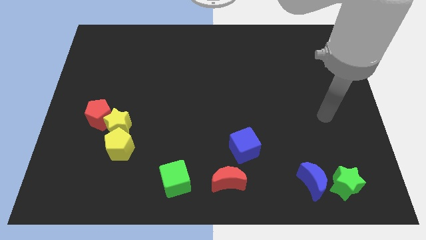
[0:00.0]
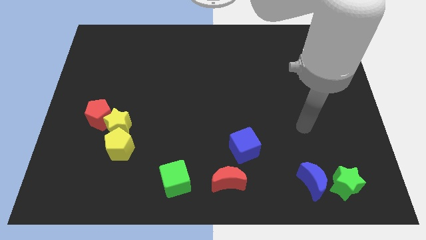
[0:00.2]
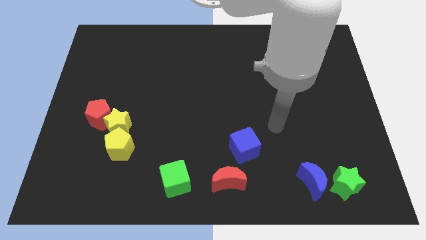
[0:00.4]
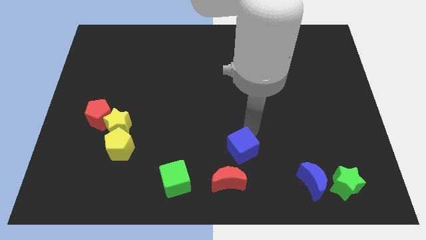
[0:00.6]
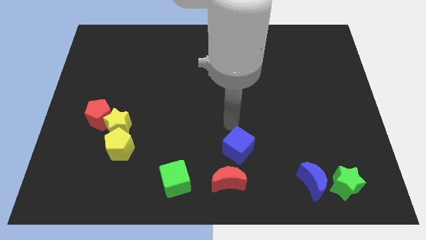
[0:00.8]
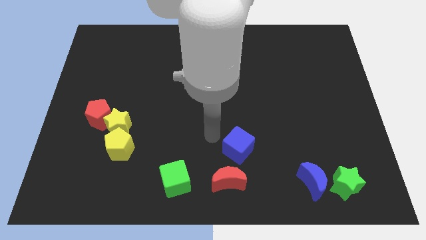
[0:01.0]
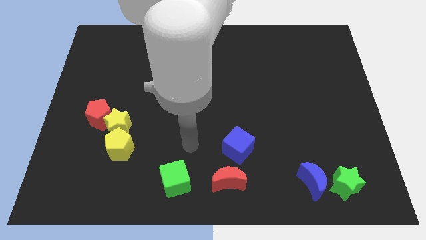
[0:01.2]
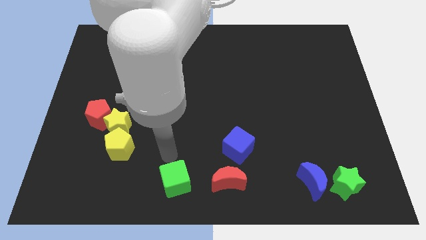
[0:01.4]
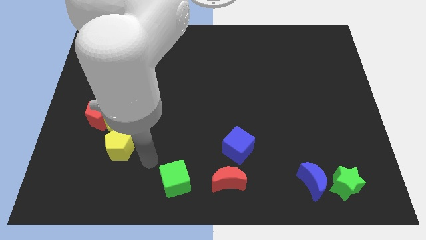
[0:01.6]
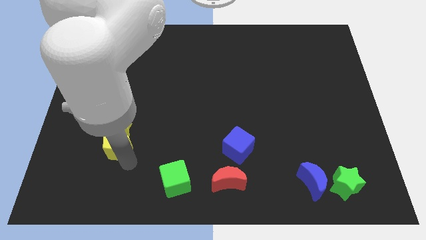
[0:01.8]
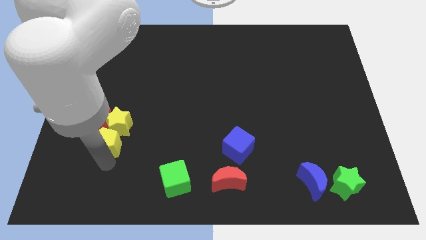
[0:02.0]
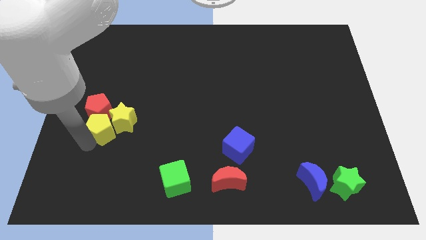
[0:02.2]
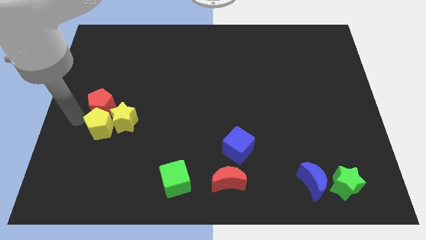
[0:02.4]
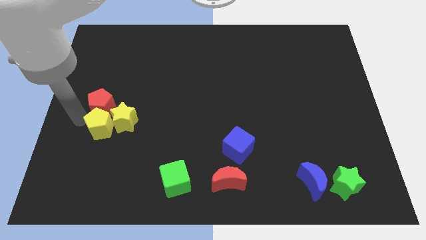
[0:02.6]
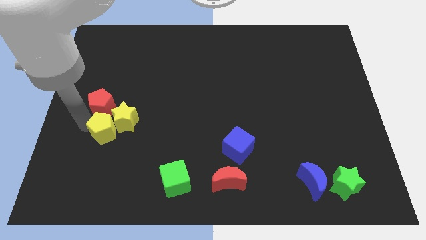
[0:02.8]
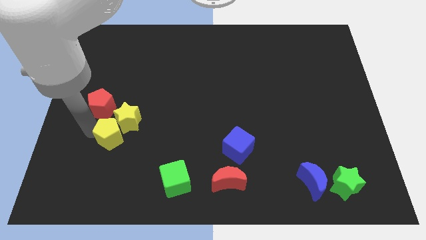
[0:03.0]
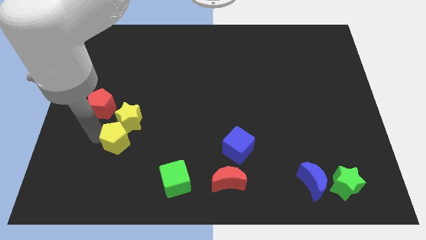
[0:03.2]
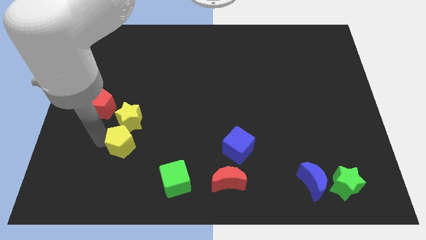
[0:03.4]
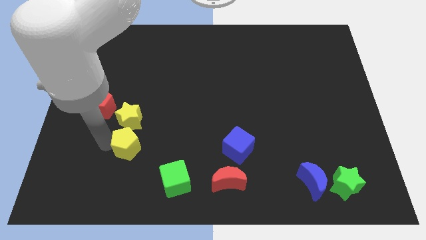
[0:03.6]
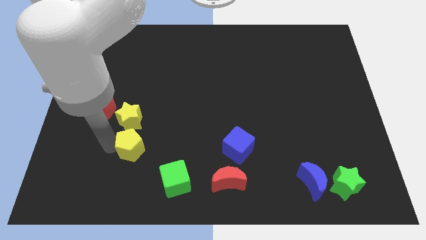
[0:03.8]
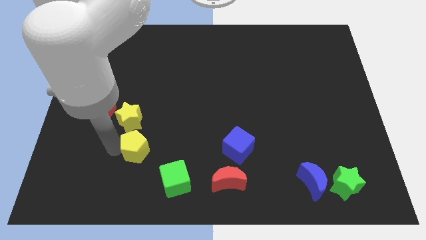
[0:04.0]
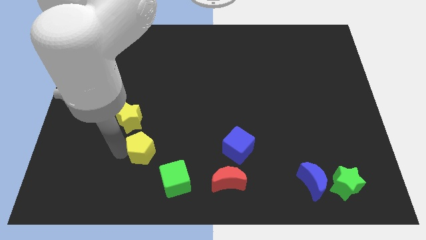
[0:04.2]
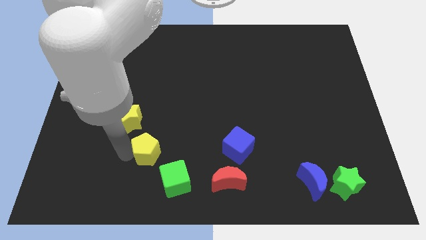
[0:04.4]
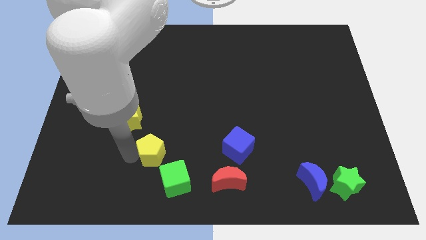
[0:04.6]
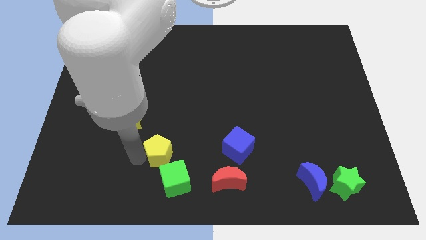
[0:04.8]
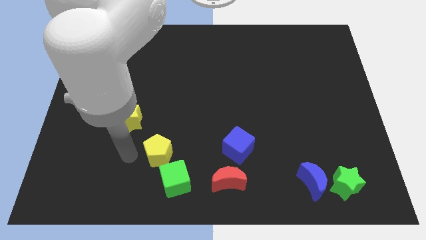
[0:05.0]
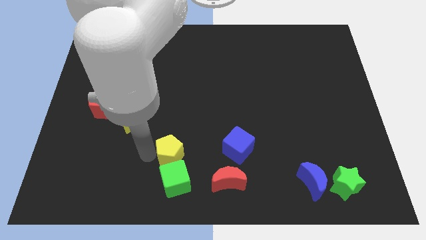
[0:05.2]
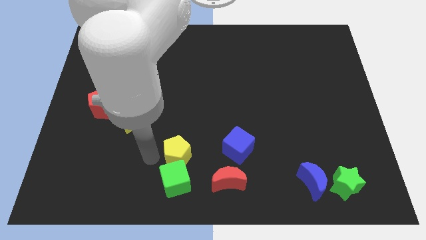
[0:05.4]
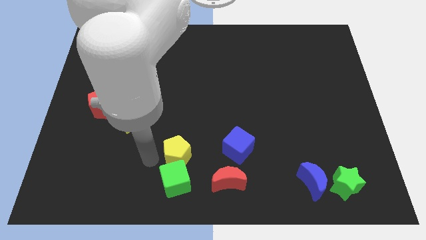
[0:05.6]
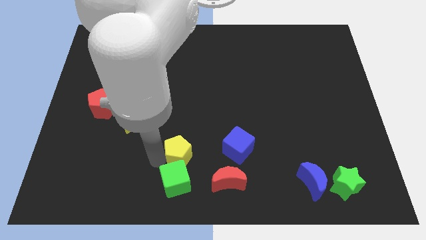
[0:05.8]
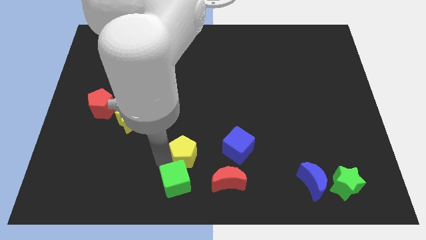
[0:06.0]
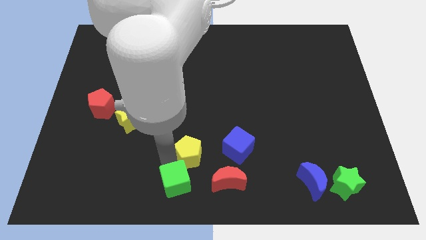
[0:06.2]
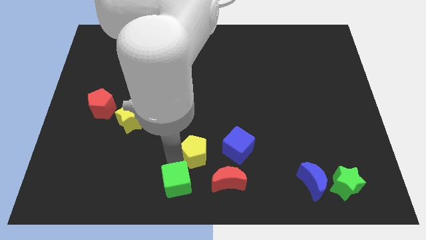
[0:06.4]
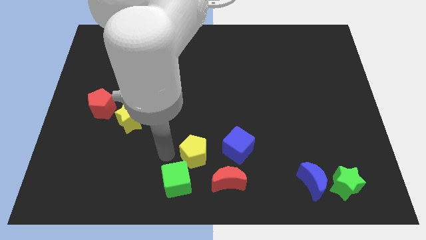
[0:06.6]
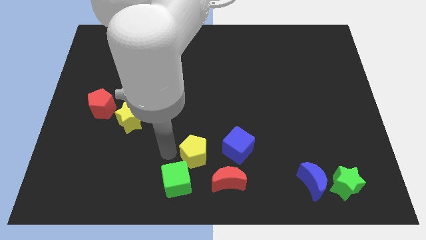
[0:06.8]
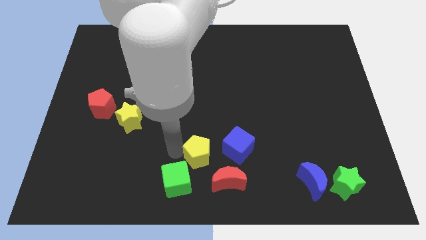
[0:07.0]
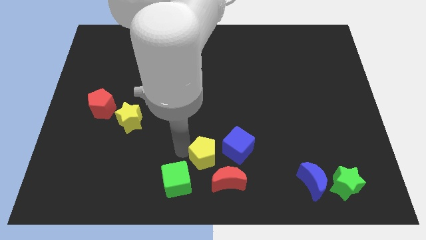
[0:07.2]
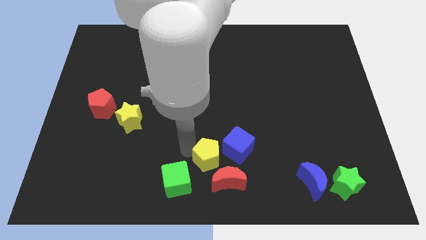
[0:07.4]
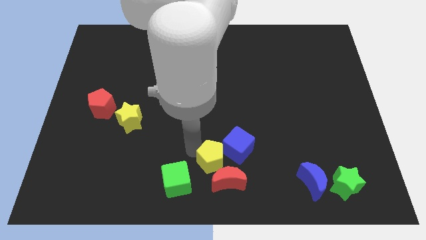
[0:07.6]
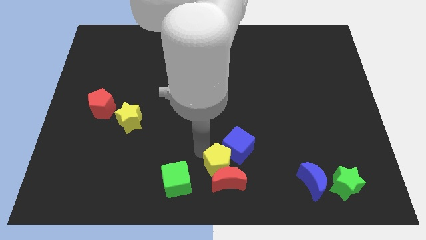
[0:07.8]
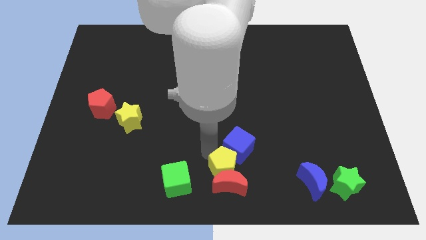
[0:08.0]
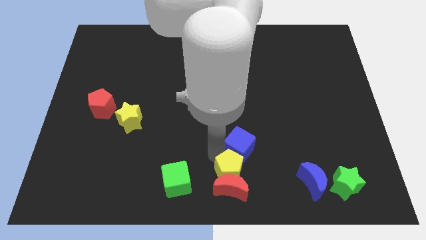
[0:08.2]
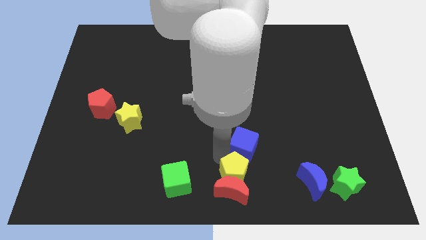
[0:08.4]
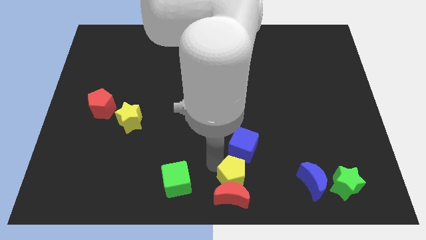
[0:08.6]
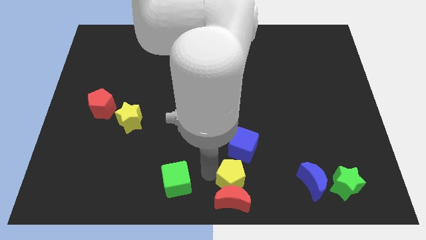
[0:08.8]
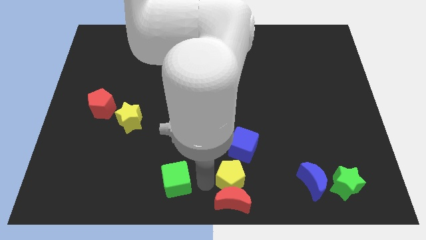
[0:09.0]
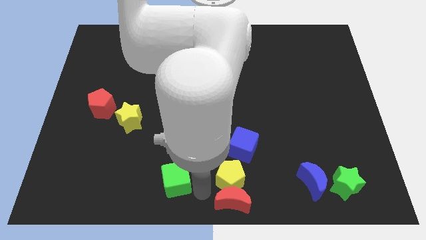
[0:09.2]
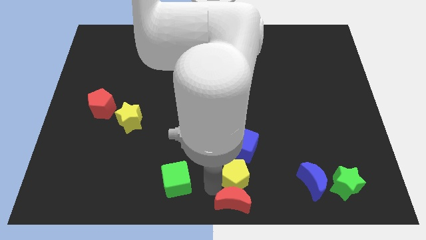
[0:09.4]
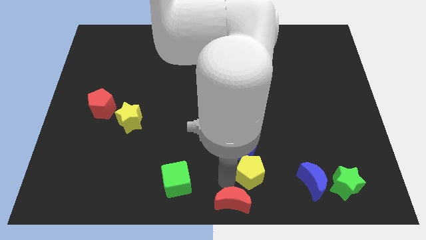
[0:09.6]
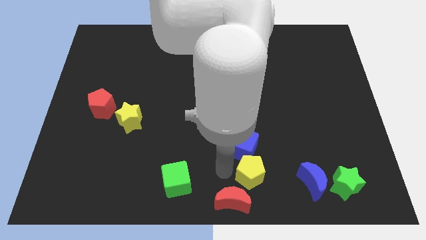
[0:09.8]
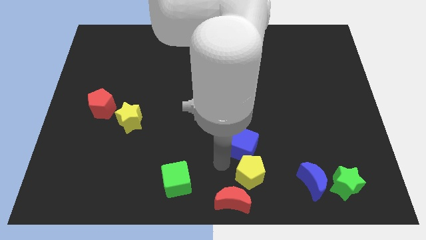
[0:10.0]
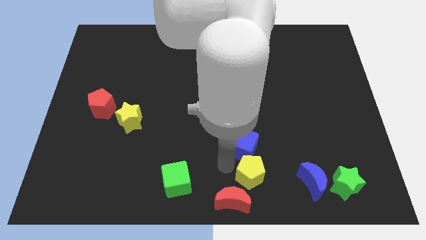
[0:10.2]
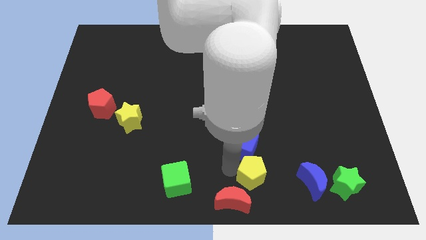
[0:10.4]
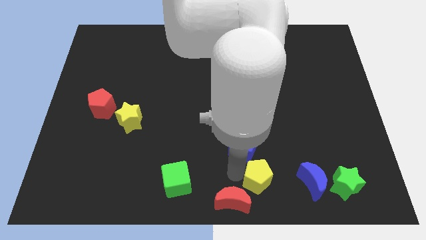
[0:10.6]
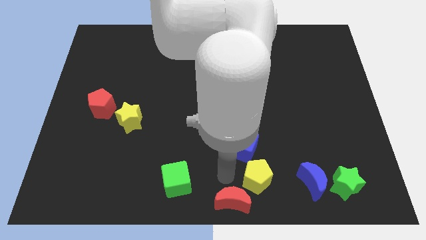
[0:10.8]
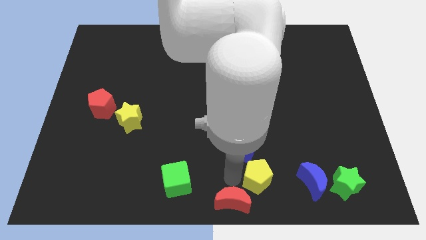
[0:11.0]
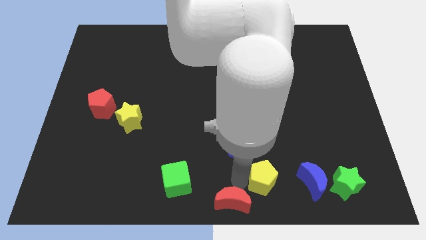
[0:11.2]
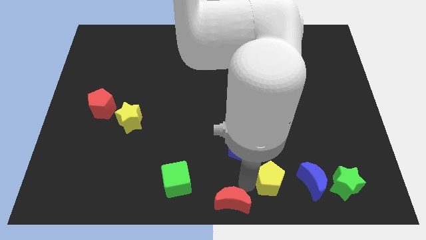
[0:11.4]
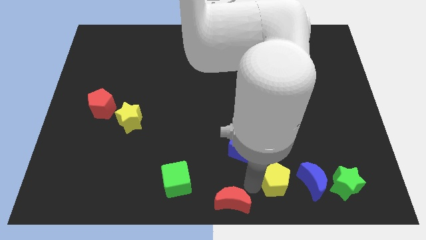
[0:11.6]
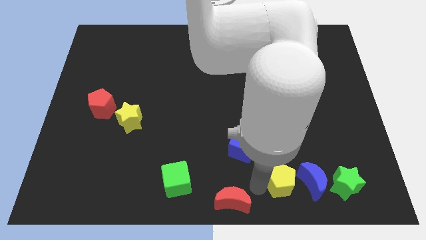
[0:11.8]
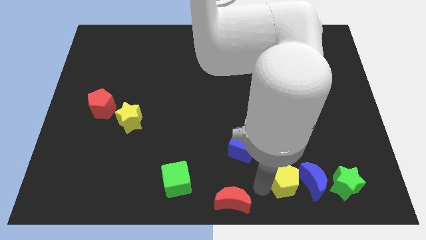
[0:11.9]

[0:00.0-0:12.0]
move the yellow pentagon to the blue moon
